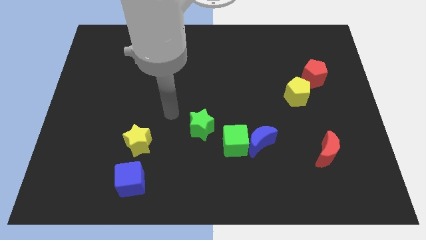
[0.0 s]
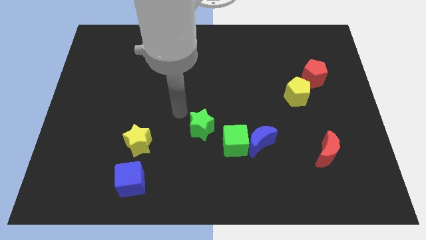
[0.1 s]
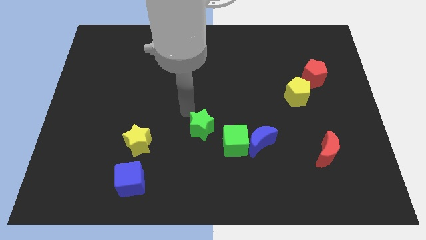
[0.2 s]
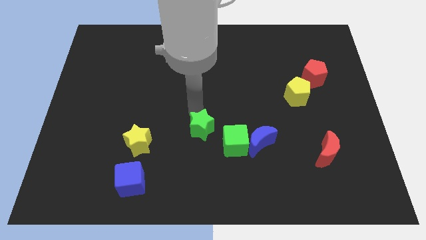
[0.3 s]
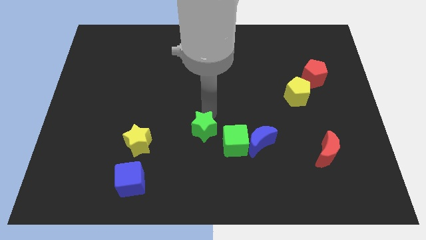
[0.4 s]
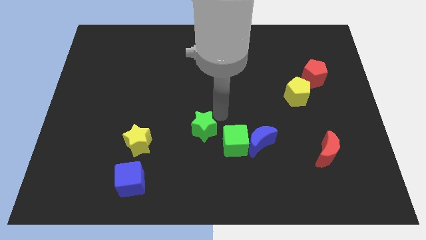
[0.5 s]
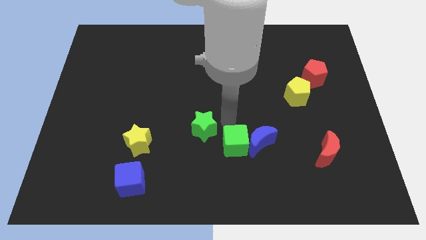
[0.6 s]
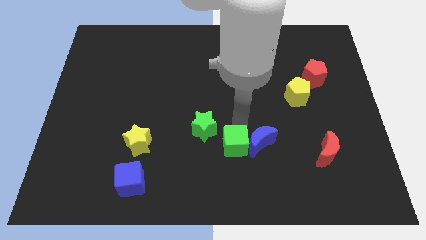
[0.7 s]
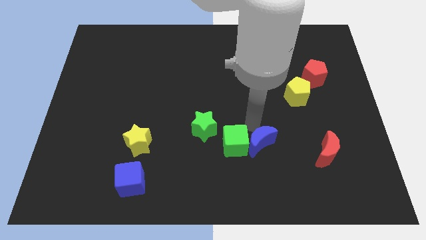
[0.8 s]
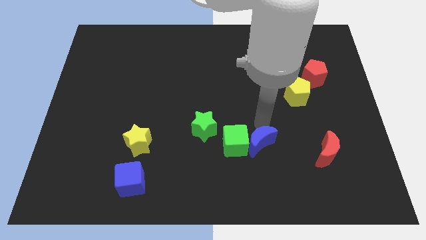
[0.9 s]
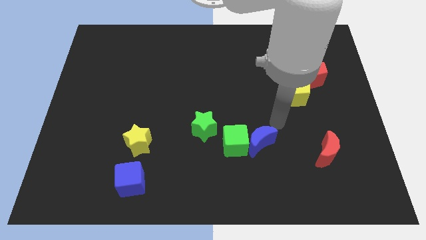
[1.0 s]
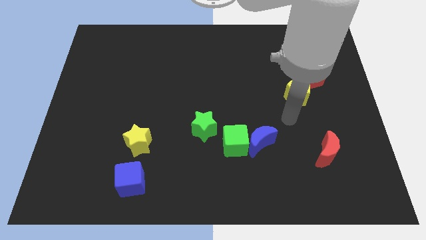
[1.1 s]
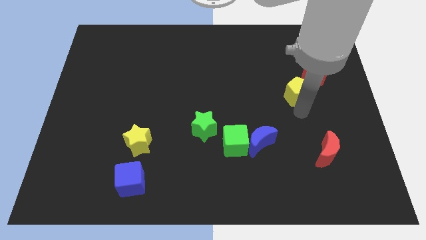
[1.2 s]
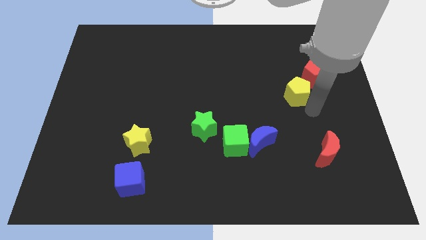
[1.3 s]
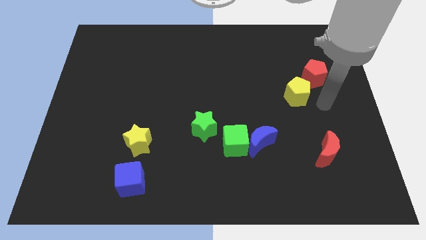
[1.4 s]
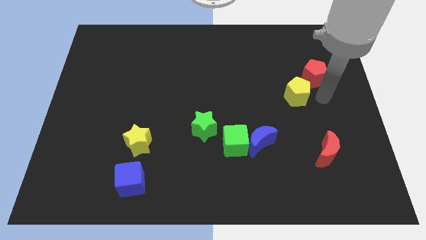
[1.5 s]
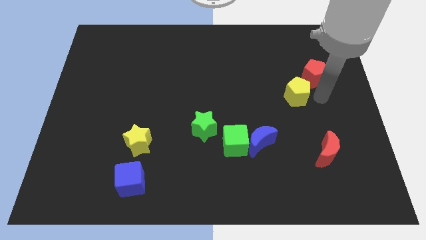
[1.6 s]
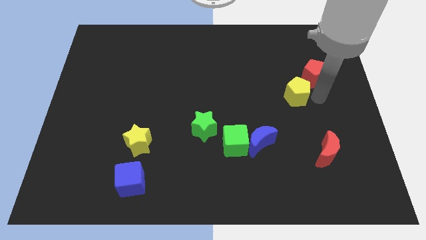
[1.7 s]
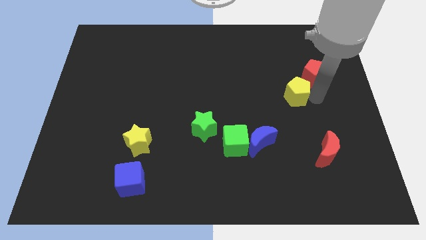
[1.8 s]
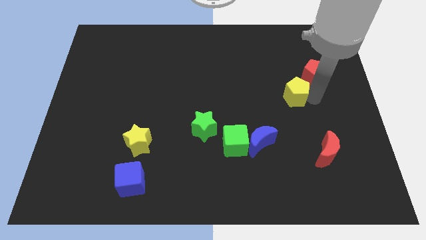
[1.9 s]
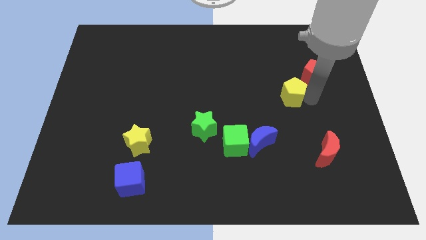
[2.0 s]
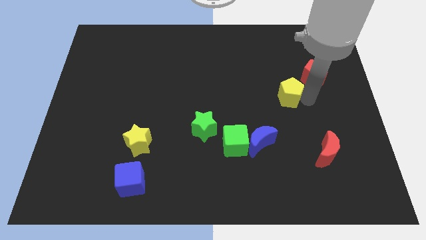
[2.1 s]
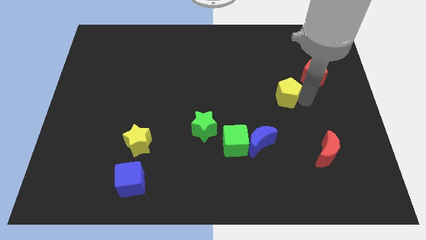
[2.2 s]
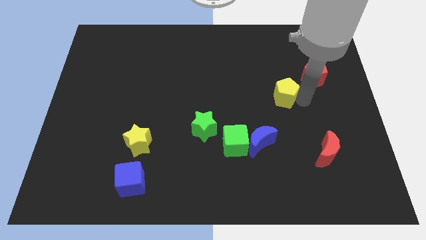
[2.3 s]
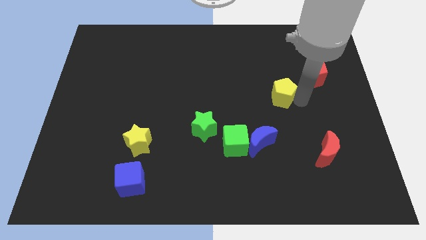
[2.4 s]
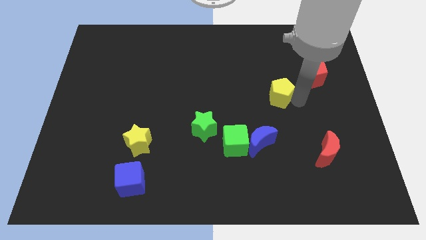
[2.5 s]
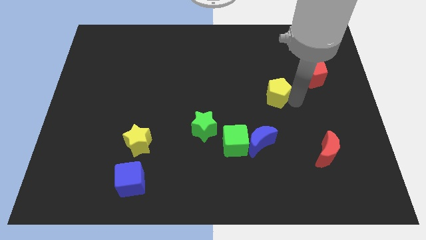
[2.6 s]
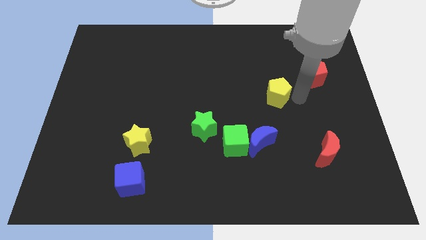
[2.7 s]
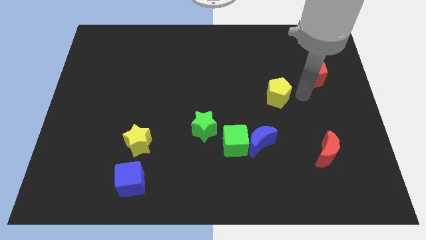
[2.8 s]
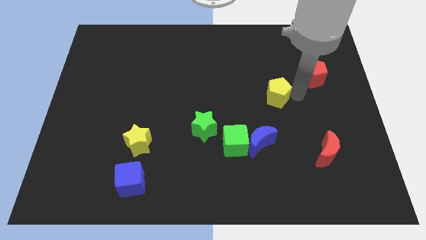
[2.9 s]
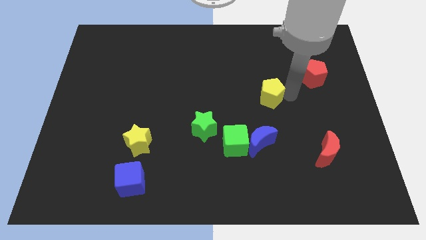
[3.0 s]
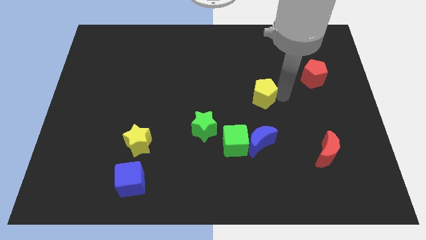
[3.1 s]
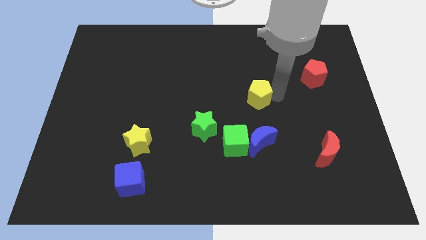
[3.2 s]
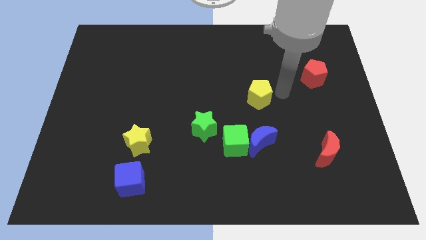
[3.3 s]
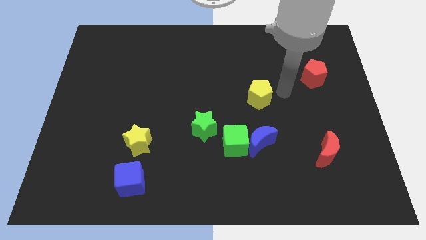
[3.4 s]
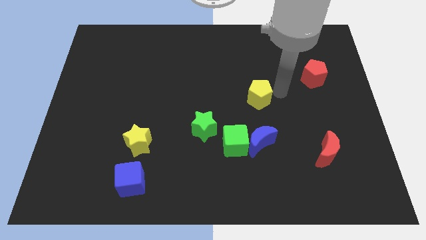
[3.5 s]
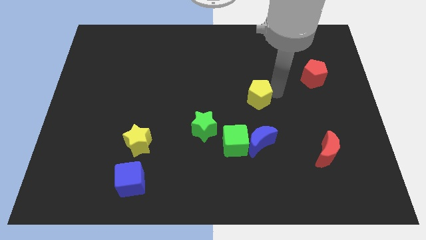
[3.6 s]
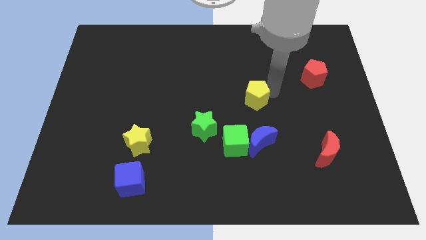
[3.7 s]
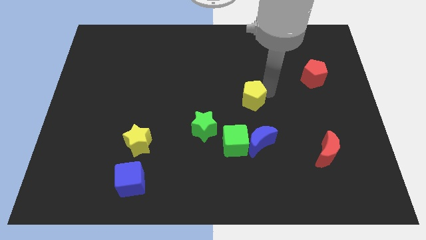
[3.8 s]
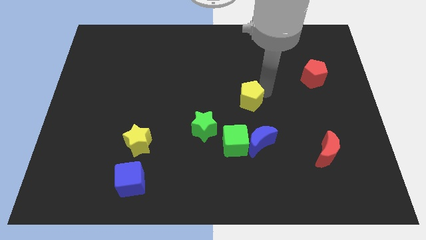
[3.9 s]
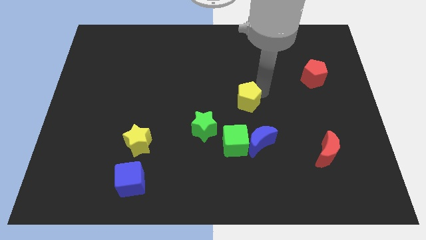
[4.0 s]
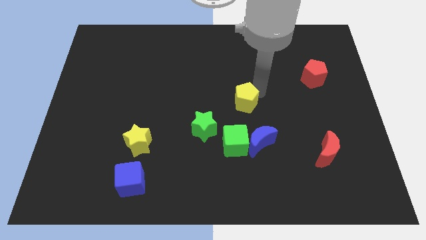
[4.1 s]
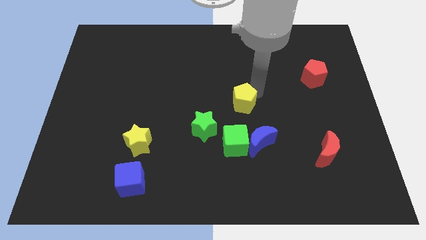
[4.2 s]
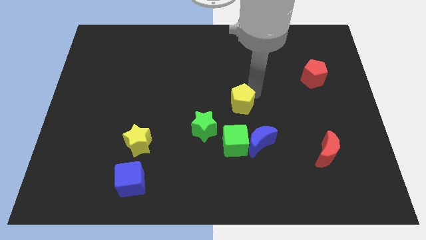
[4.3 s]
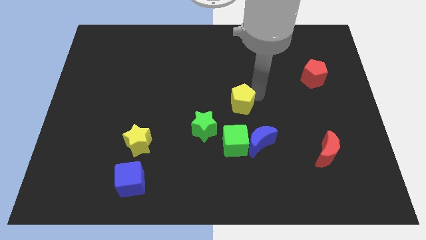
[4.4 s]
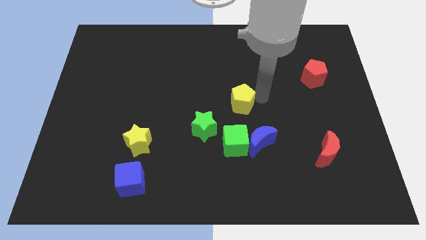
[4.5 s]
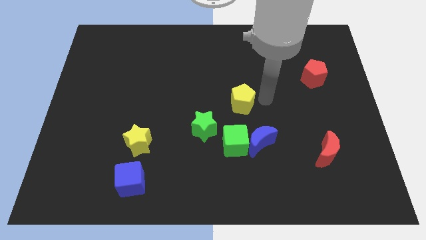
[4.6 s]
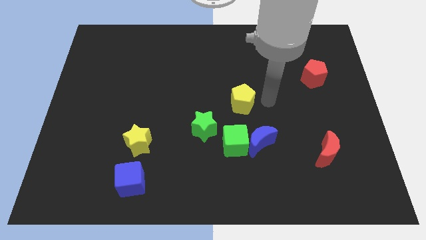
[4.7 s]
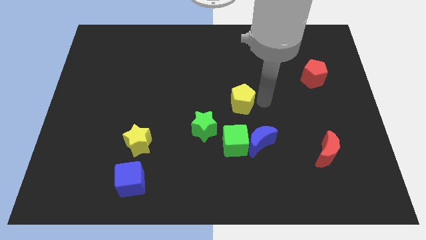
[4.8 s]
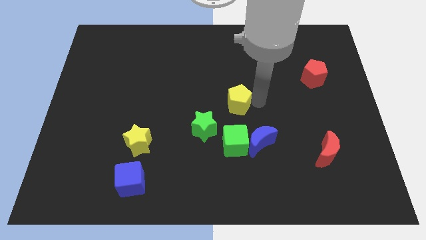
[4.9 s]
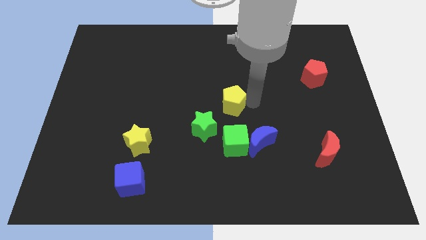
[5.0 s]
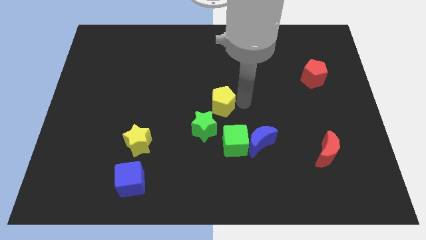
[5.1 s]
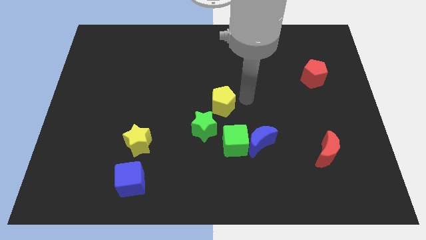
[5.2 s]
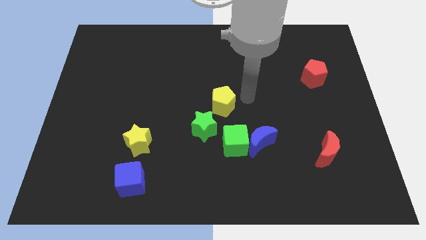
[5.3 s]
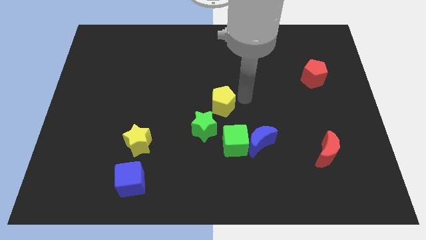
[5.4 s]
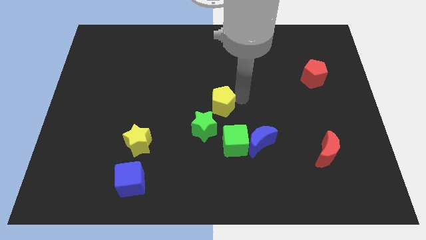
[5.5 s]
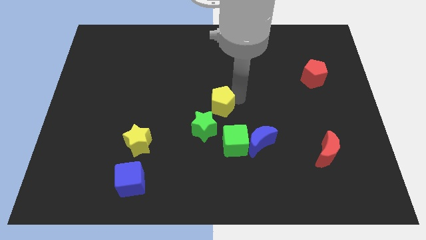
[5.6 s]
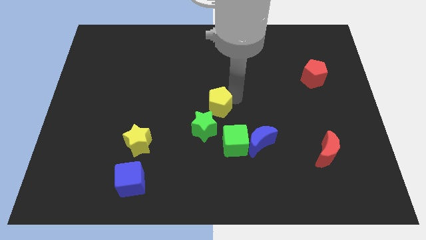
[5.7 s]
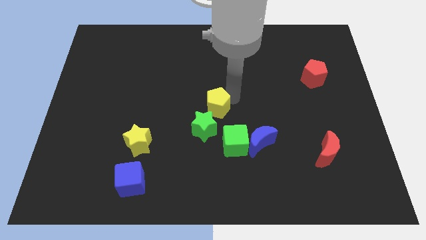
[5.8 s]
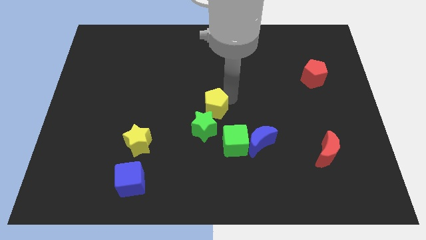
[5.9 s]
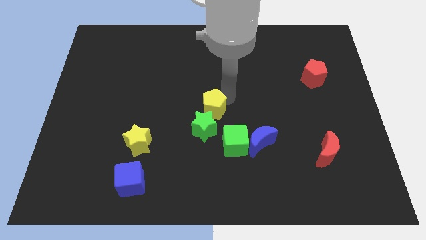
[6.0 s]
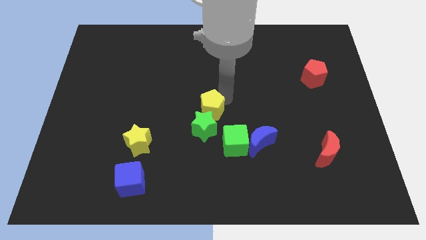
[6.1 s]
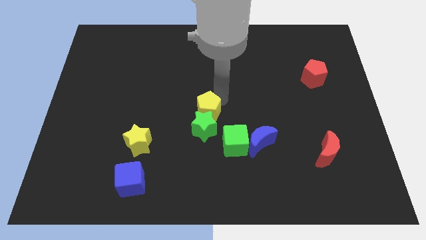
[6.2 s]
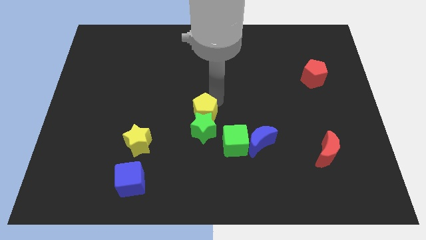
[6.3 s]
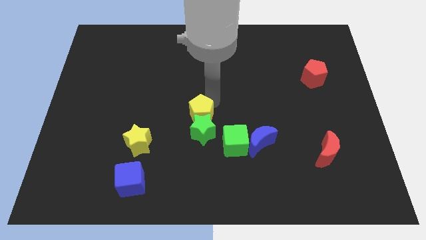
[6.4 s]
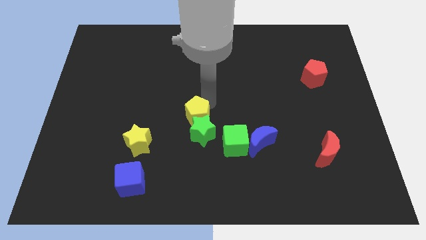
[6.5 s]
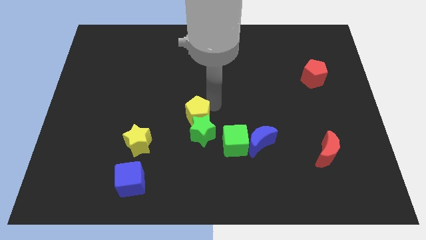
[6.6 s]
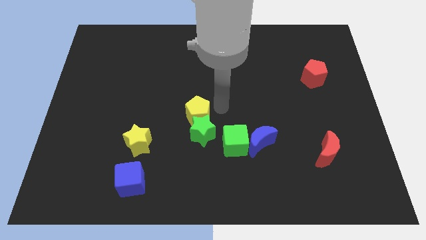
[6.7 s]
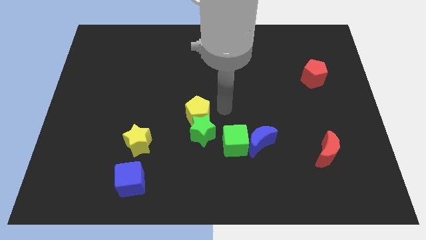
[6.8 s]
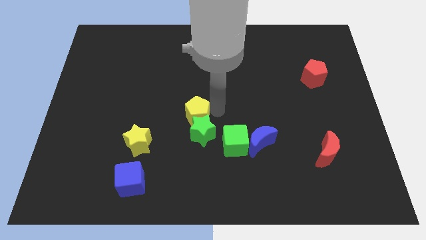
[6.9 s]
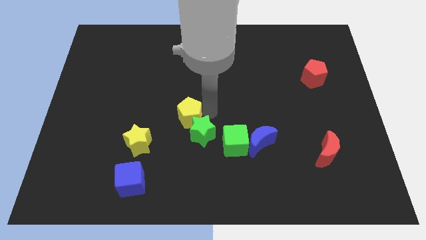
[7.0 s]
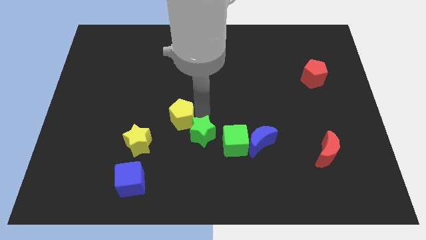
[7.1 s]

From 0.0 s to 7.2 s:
slide the yellow pentagon diagonally up and to the right of the yellow star

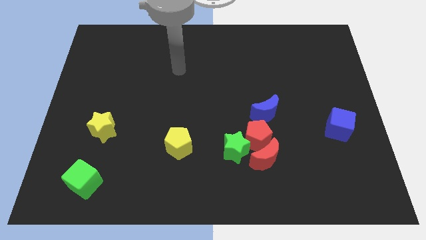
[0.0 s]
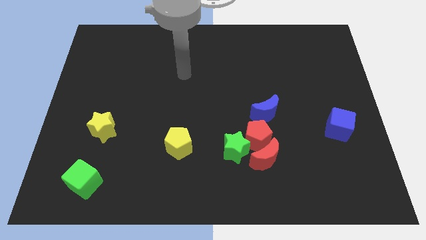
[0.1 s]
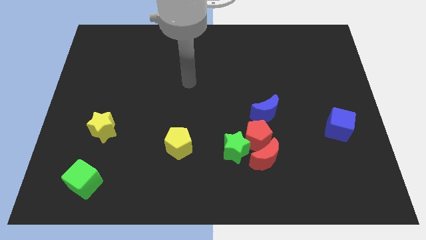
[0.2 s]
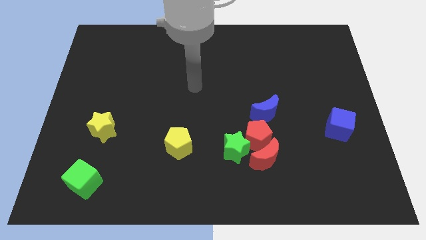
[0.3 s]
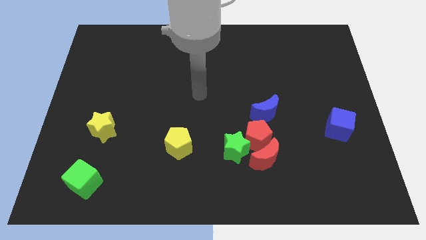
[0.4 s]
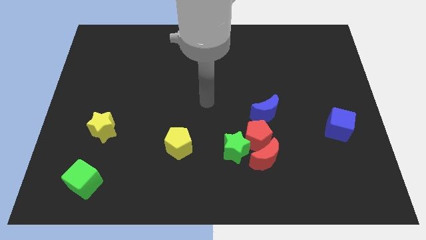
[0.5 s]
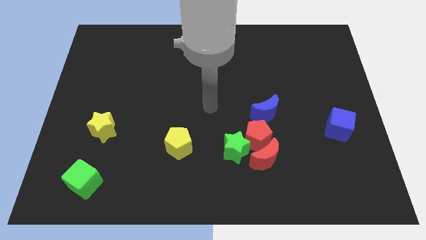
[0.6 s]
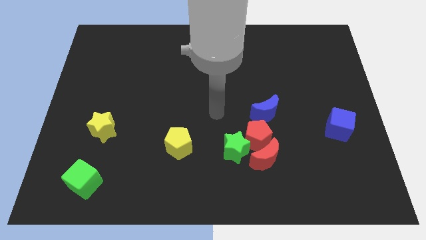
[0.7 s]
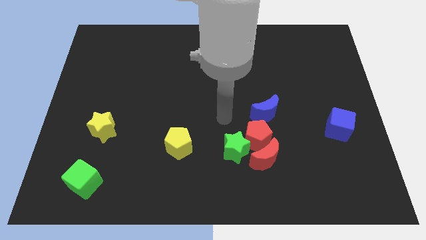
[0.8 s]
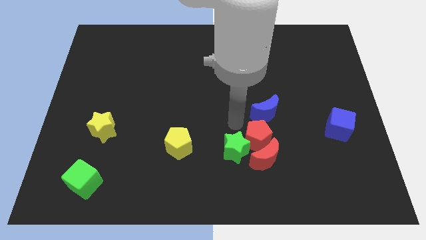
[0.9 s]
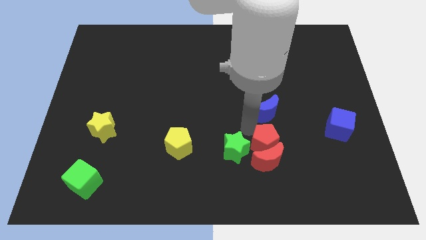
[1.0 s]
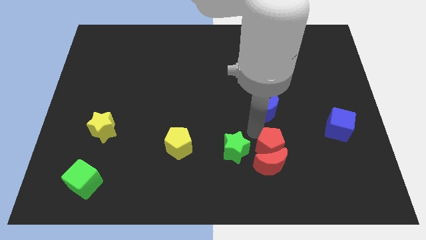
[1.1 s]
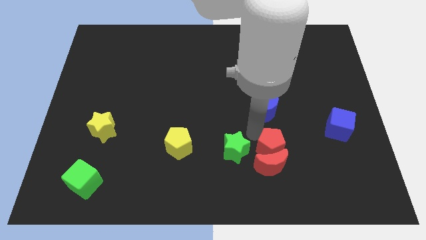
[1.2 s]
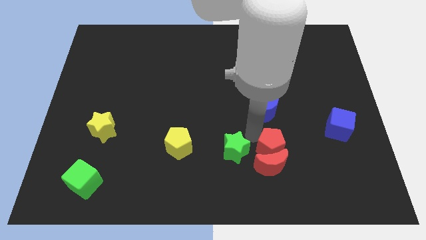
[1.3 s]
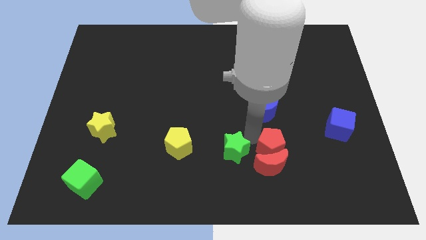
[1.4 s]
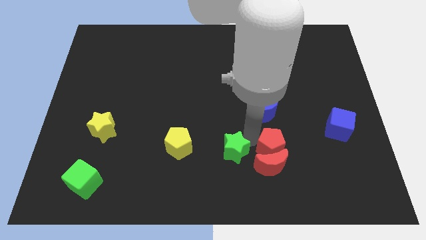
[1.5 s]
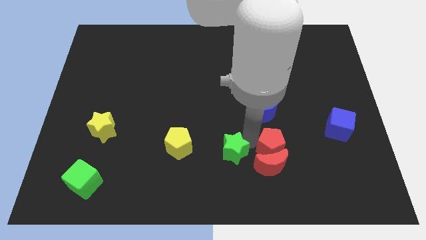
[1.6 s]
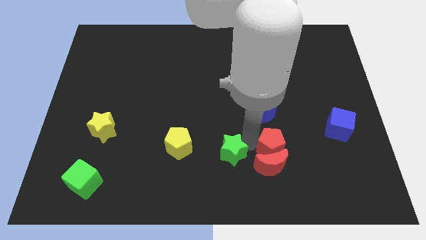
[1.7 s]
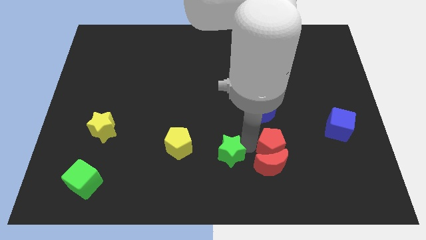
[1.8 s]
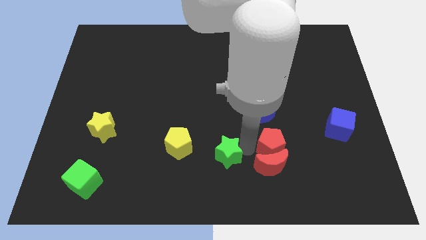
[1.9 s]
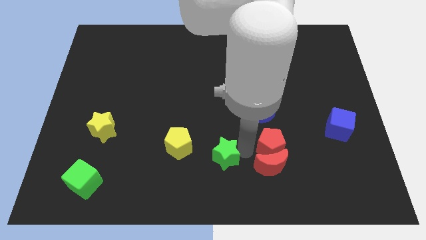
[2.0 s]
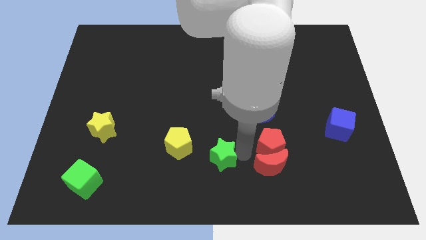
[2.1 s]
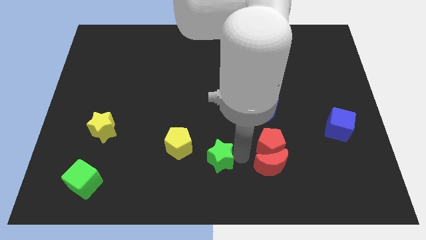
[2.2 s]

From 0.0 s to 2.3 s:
put the green star to the bottom right of the yellow pentagon
